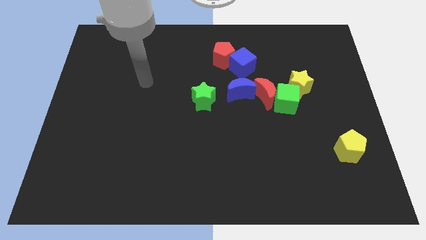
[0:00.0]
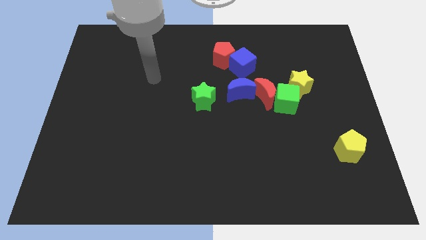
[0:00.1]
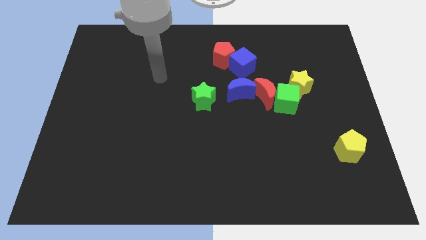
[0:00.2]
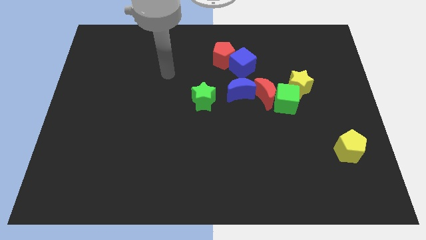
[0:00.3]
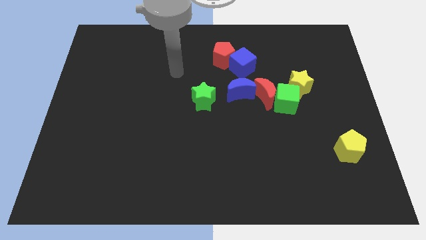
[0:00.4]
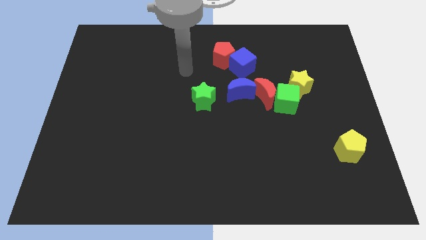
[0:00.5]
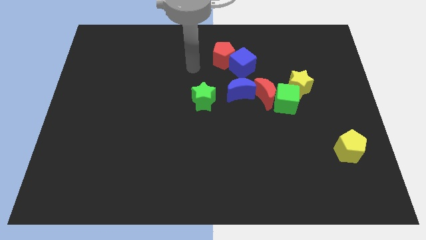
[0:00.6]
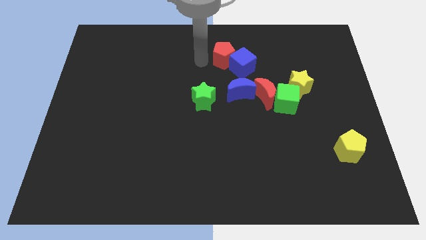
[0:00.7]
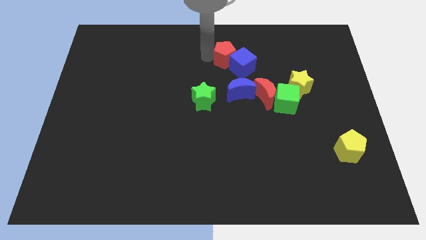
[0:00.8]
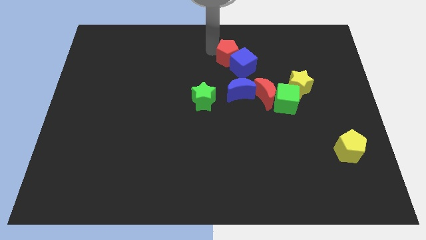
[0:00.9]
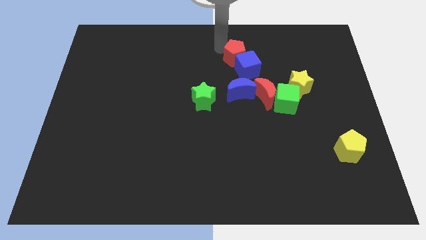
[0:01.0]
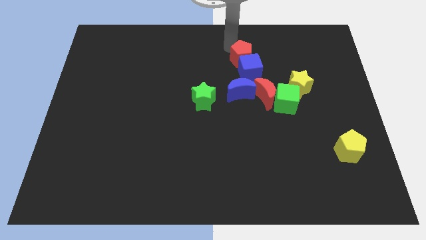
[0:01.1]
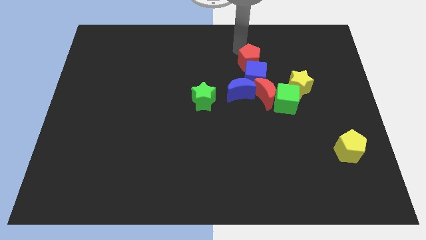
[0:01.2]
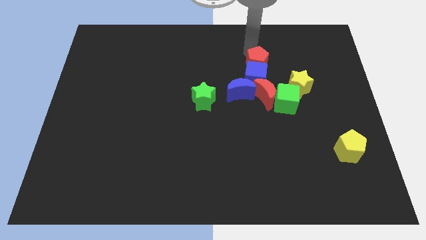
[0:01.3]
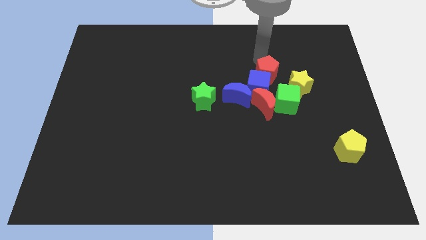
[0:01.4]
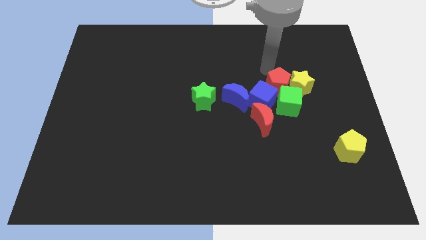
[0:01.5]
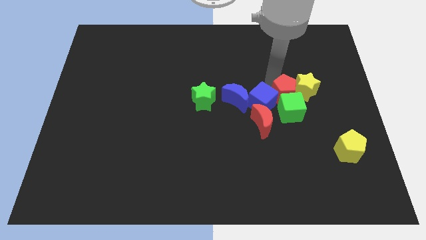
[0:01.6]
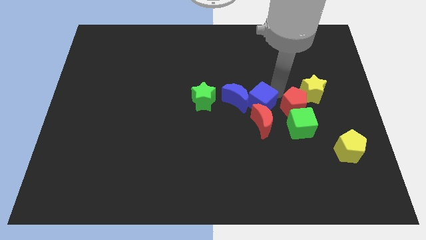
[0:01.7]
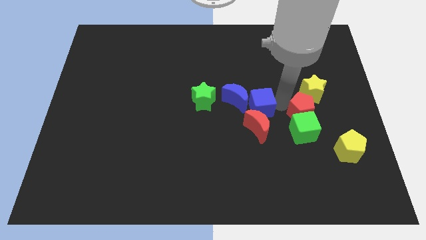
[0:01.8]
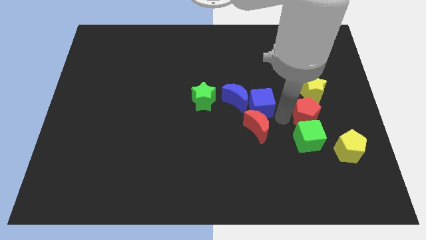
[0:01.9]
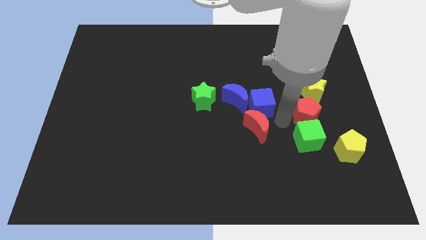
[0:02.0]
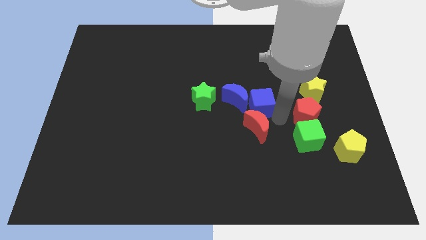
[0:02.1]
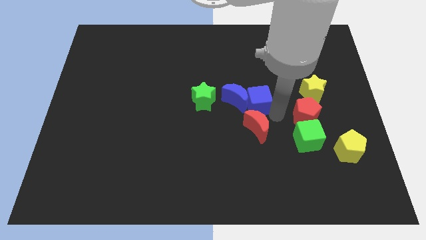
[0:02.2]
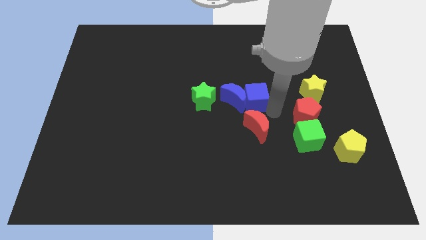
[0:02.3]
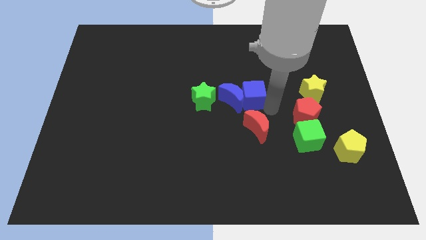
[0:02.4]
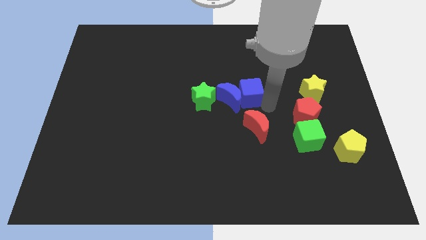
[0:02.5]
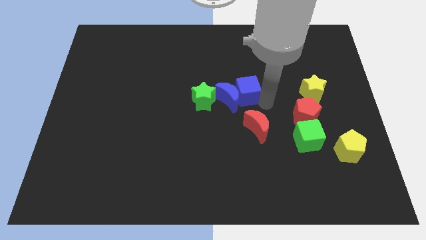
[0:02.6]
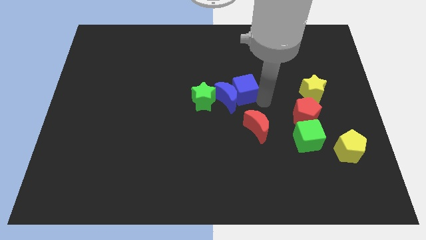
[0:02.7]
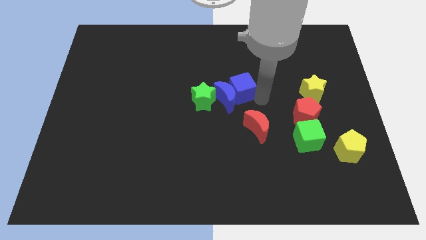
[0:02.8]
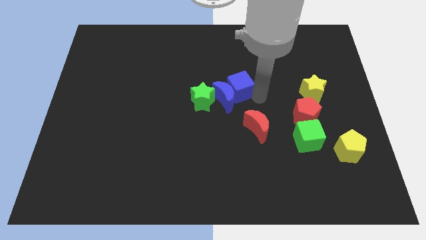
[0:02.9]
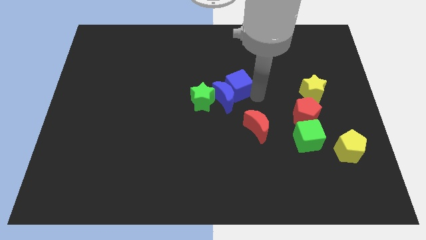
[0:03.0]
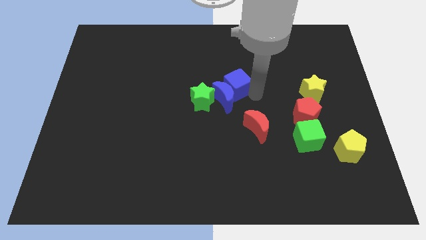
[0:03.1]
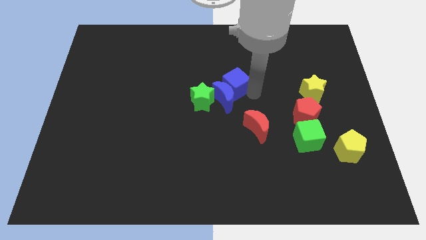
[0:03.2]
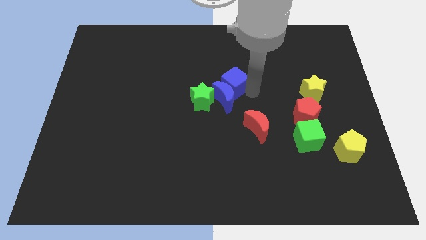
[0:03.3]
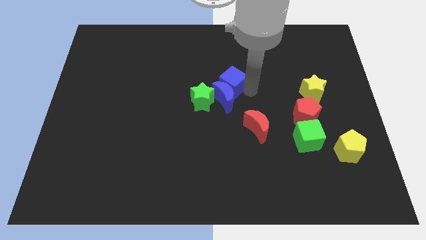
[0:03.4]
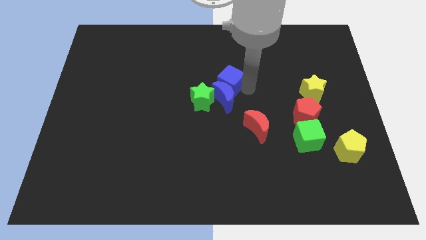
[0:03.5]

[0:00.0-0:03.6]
slightly slide the blue cube downwards and to the left diagonally

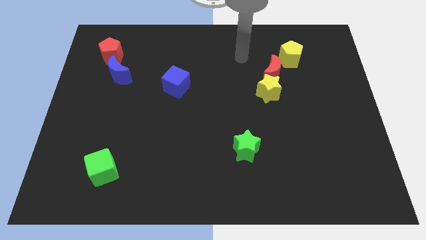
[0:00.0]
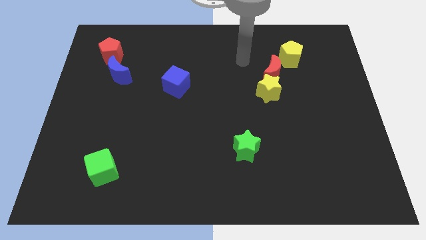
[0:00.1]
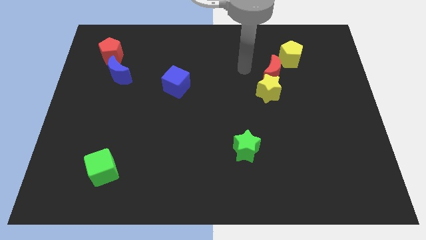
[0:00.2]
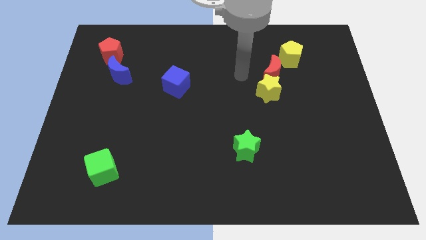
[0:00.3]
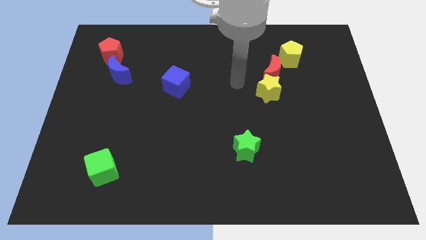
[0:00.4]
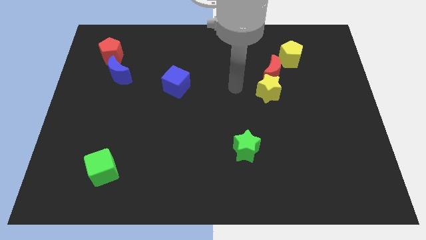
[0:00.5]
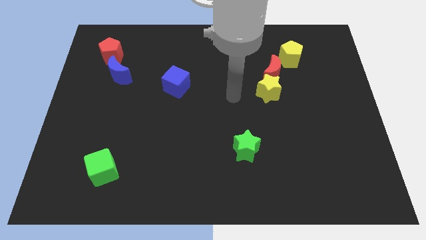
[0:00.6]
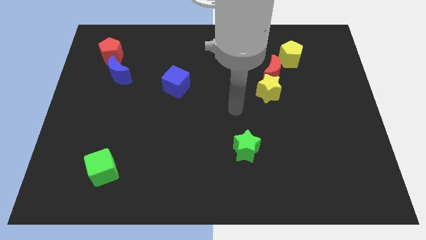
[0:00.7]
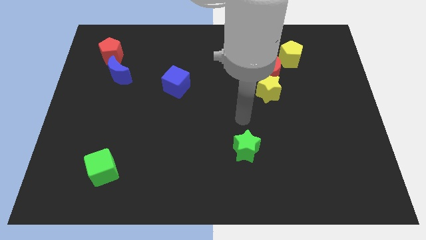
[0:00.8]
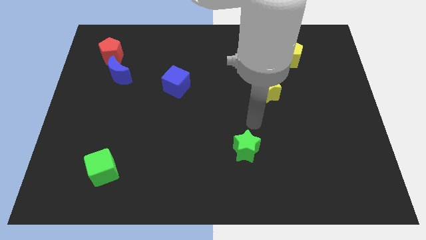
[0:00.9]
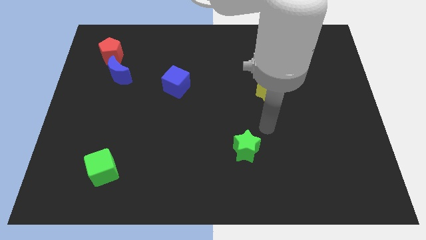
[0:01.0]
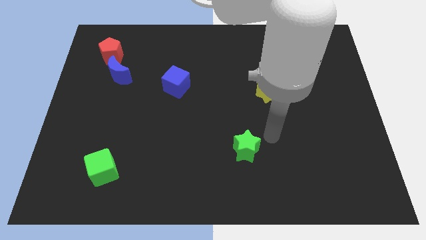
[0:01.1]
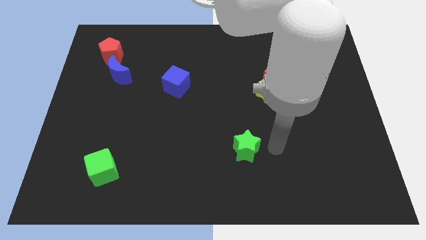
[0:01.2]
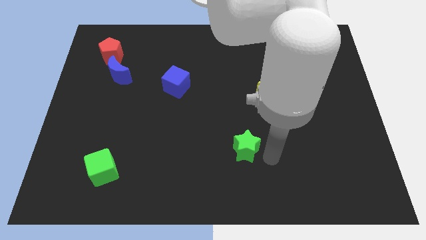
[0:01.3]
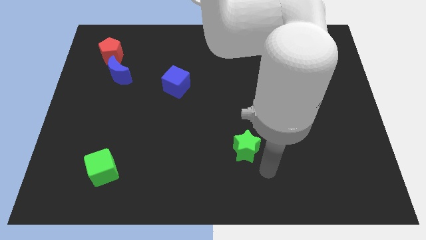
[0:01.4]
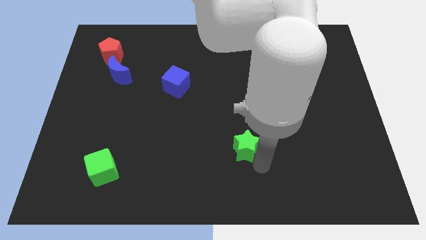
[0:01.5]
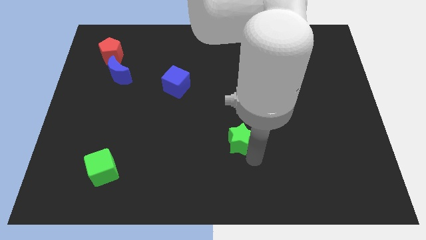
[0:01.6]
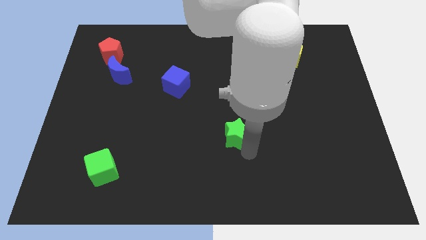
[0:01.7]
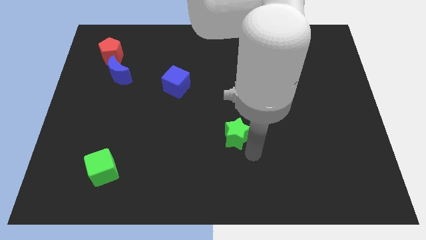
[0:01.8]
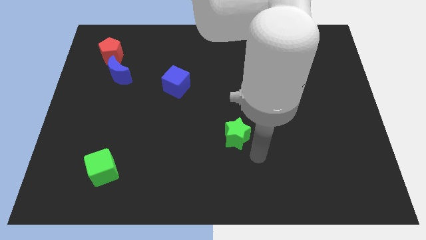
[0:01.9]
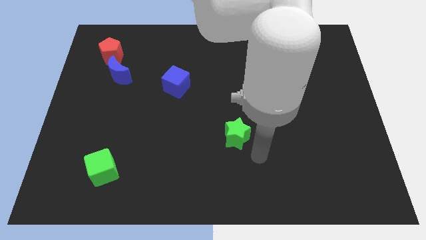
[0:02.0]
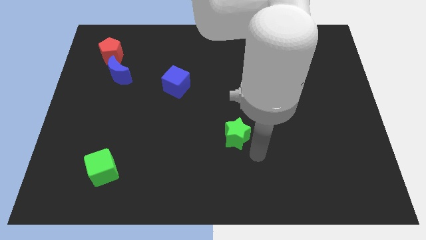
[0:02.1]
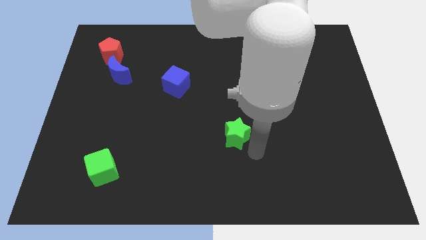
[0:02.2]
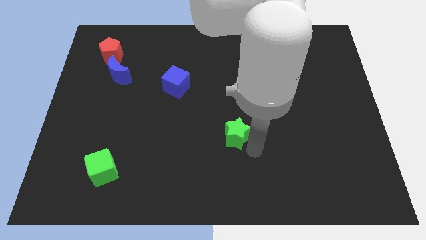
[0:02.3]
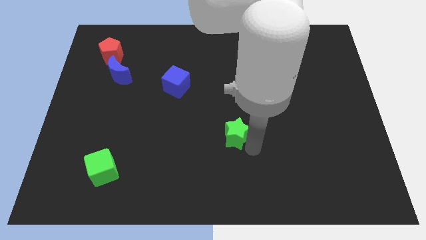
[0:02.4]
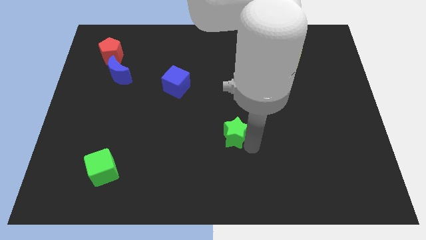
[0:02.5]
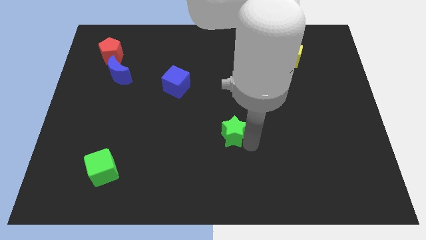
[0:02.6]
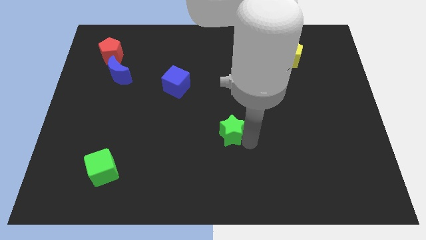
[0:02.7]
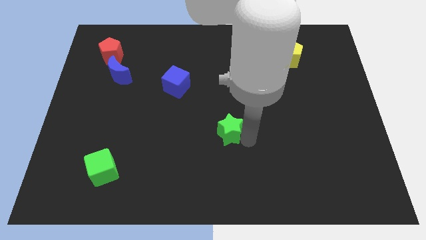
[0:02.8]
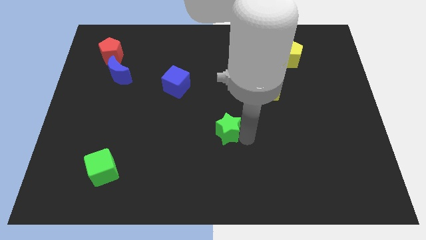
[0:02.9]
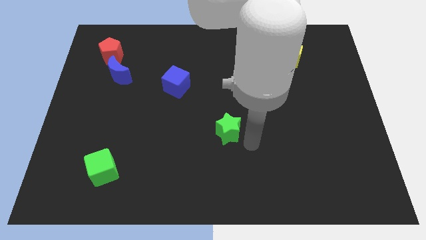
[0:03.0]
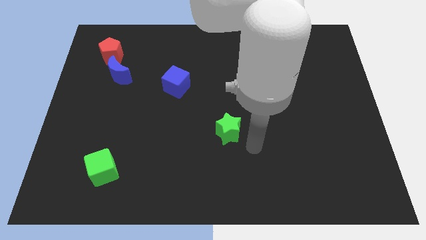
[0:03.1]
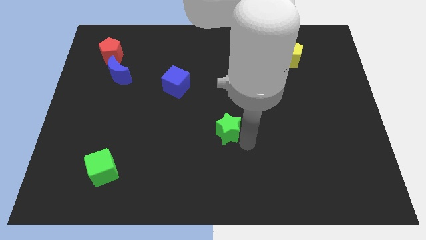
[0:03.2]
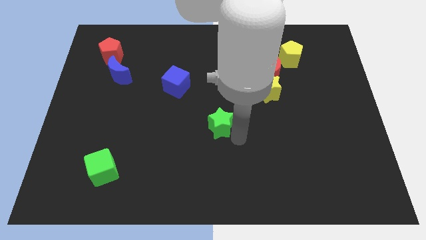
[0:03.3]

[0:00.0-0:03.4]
slightly push the green star up and left diagonally

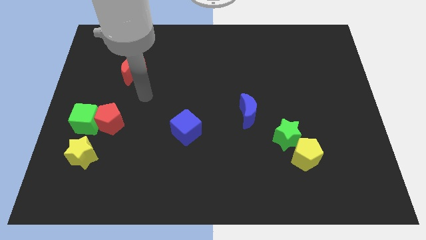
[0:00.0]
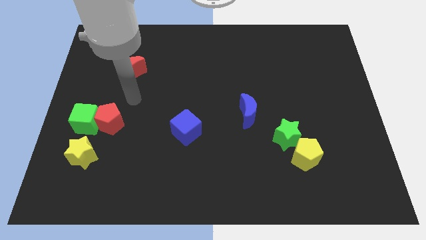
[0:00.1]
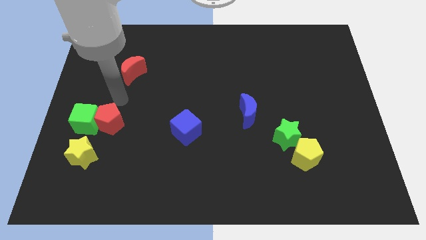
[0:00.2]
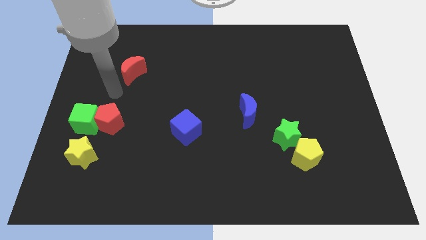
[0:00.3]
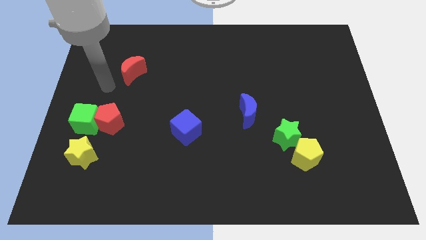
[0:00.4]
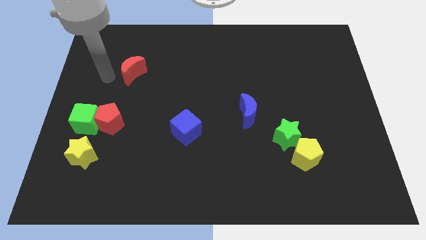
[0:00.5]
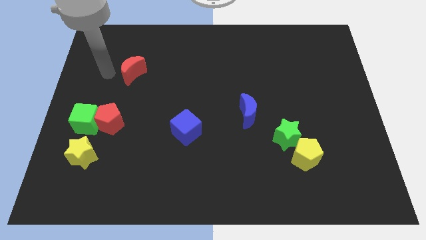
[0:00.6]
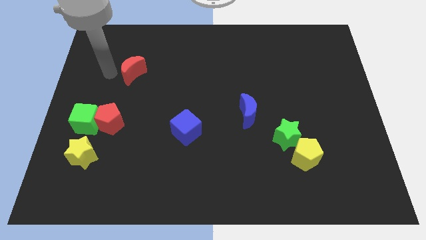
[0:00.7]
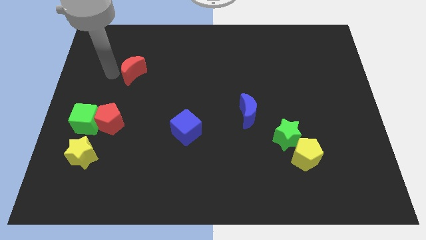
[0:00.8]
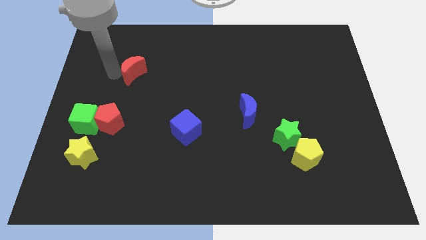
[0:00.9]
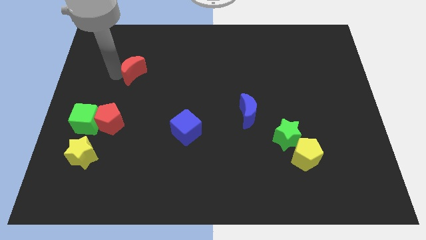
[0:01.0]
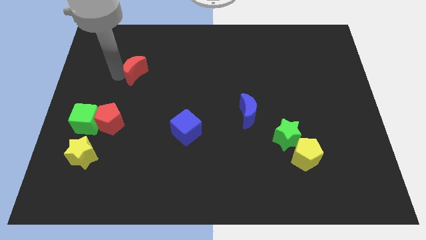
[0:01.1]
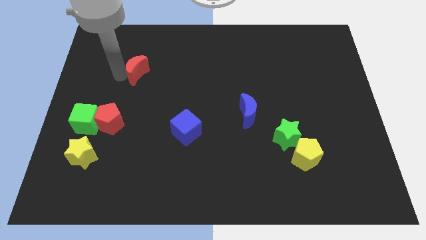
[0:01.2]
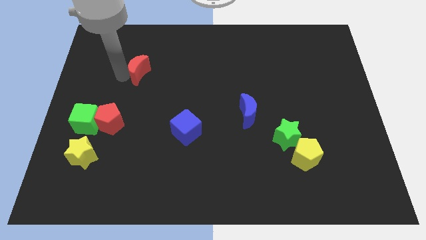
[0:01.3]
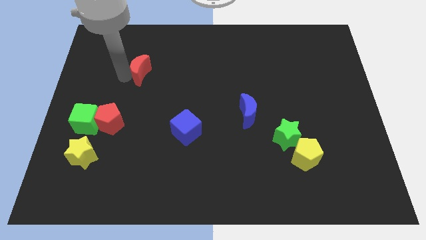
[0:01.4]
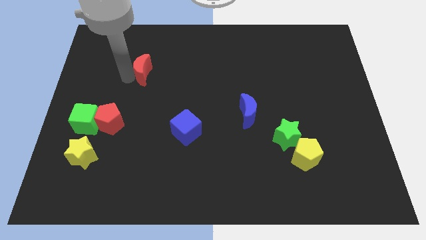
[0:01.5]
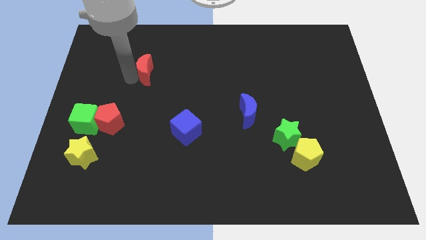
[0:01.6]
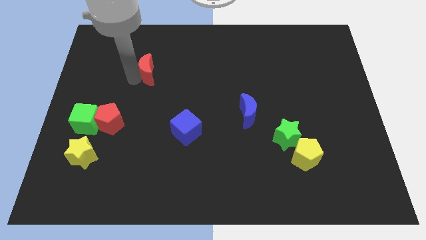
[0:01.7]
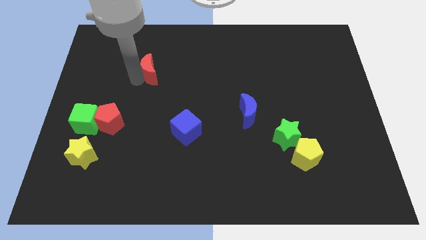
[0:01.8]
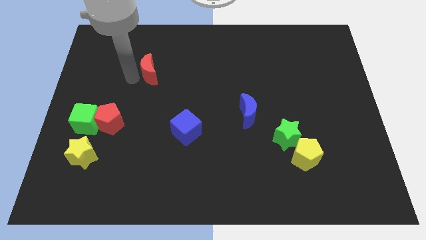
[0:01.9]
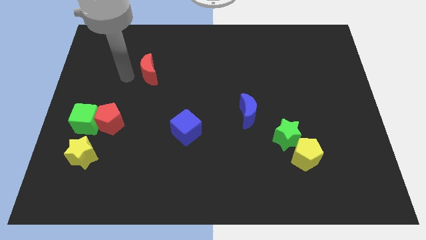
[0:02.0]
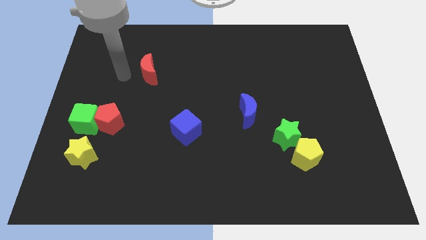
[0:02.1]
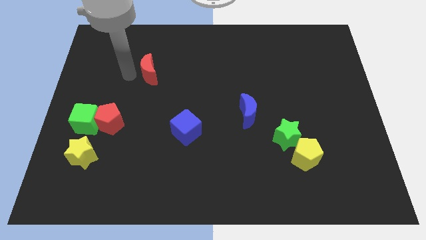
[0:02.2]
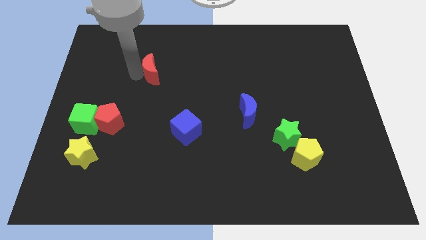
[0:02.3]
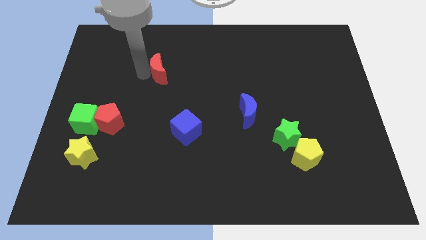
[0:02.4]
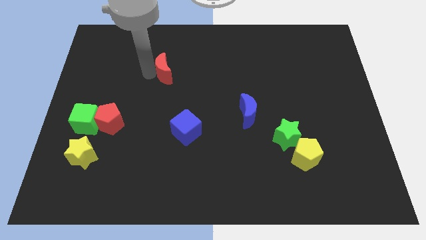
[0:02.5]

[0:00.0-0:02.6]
move the red moon slightly to the right
